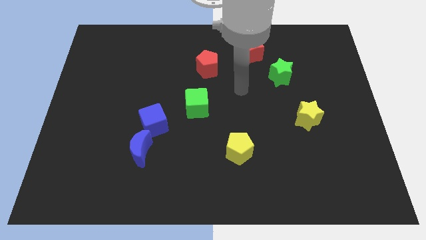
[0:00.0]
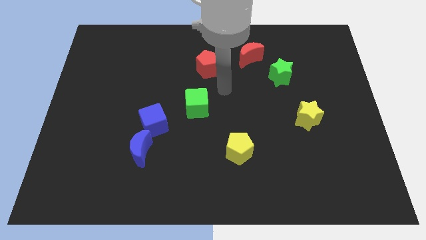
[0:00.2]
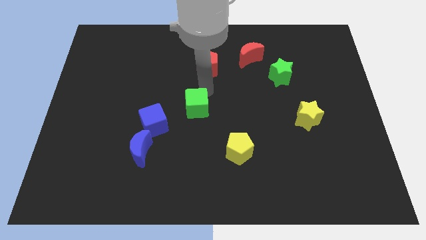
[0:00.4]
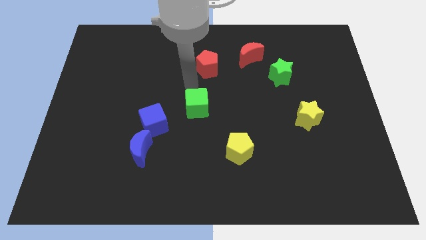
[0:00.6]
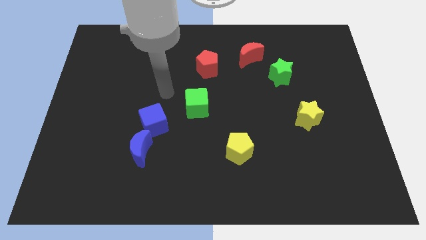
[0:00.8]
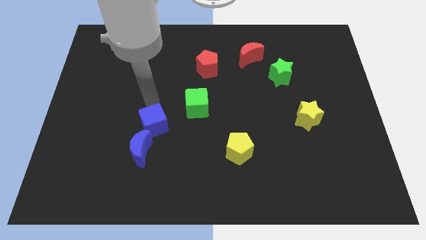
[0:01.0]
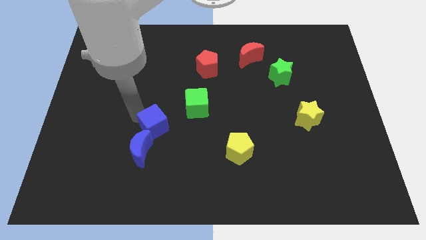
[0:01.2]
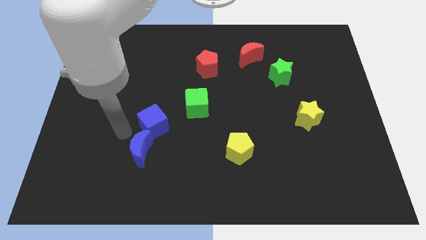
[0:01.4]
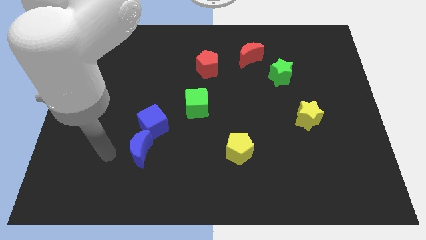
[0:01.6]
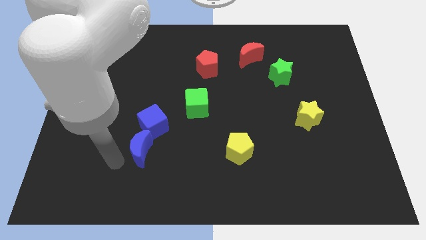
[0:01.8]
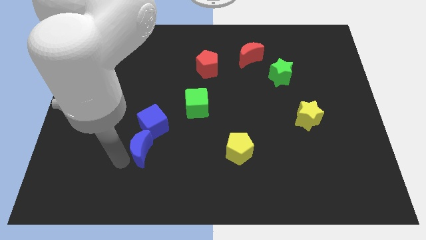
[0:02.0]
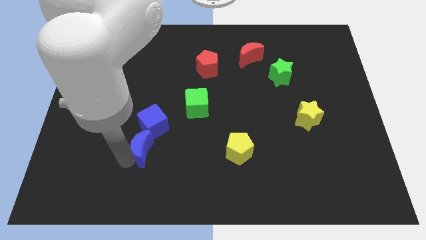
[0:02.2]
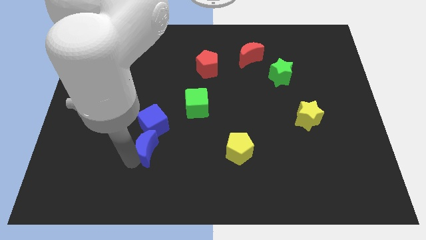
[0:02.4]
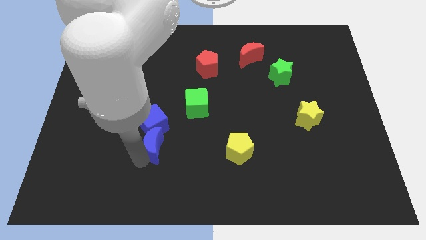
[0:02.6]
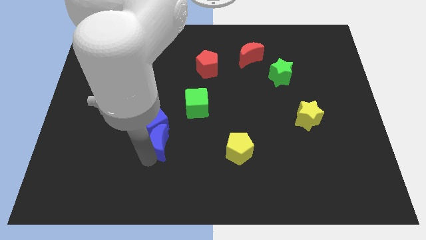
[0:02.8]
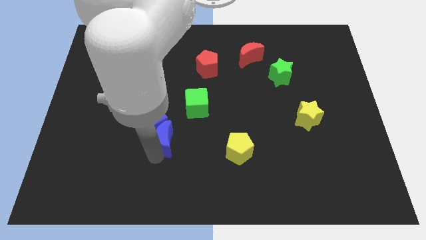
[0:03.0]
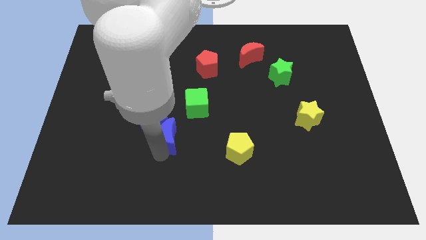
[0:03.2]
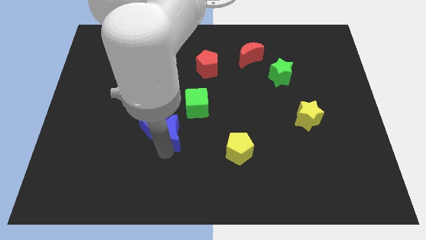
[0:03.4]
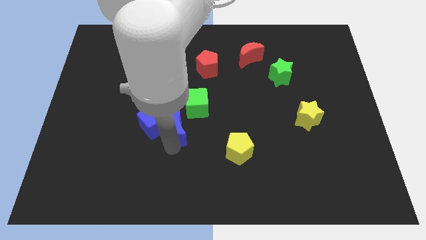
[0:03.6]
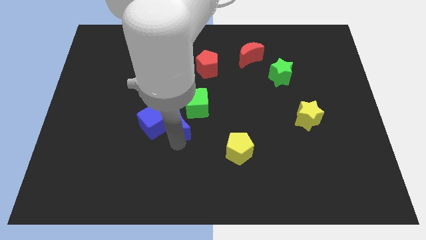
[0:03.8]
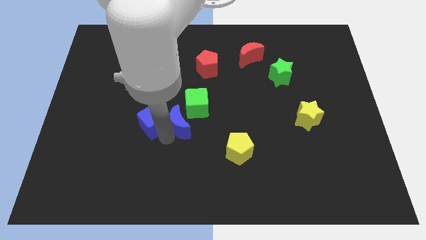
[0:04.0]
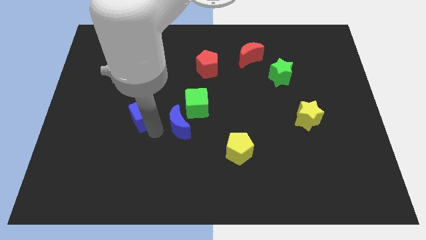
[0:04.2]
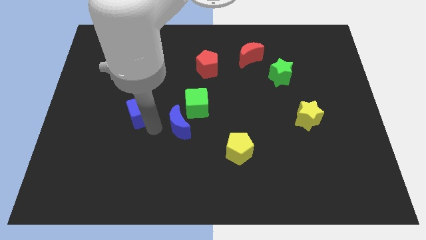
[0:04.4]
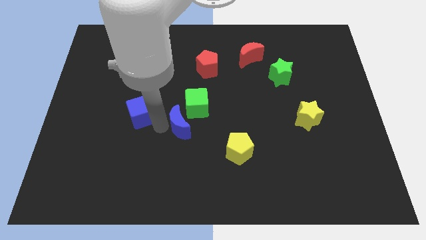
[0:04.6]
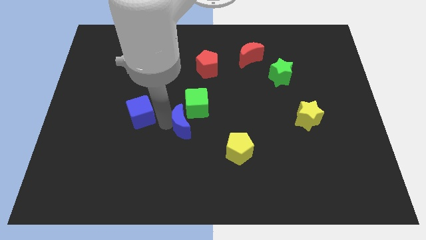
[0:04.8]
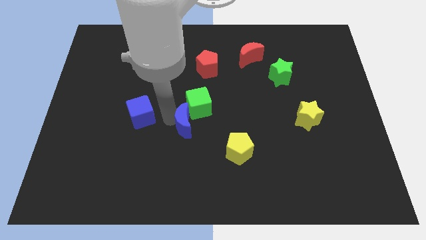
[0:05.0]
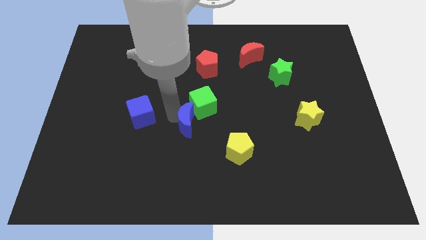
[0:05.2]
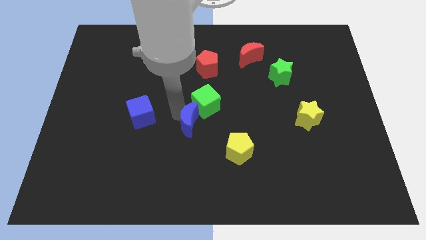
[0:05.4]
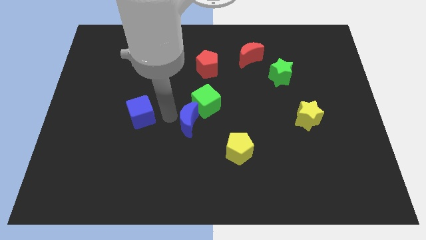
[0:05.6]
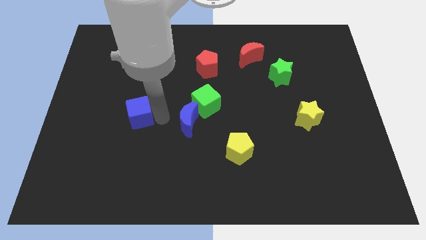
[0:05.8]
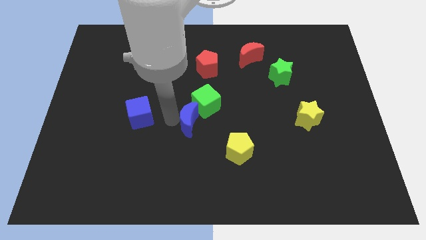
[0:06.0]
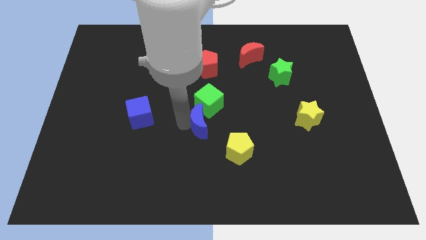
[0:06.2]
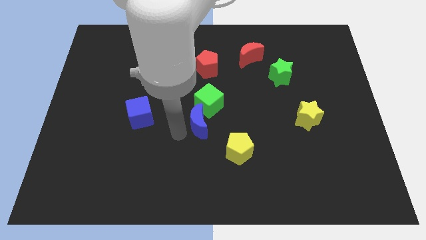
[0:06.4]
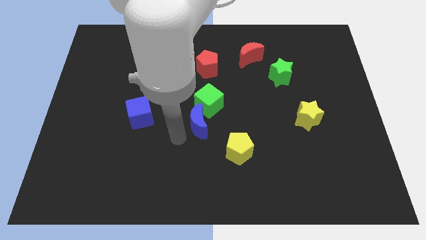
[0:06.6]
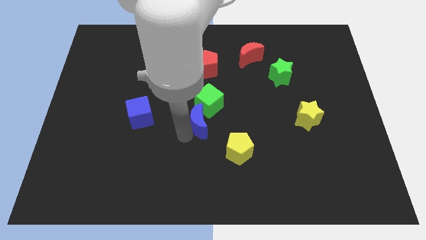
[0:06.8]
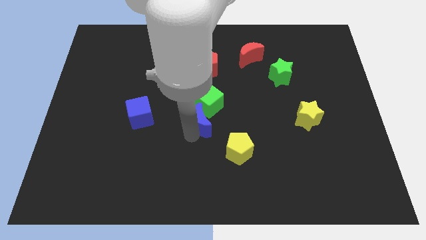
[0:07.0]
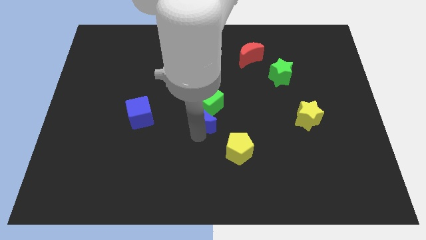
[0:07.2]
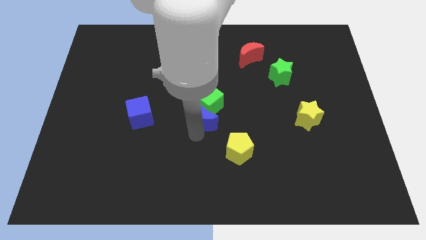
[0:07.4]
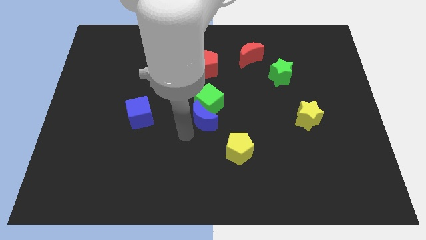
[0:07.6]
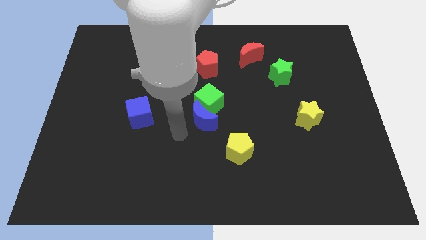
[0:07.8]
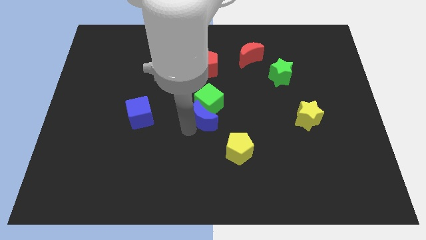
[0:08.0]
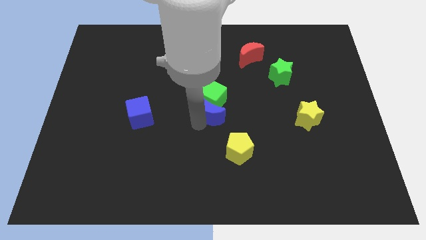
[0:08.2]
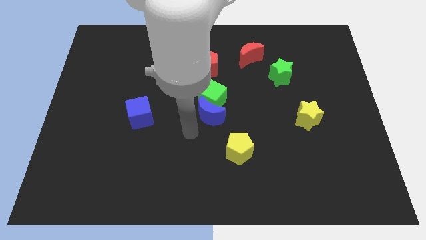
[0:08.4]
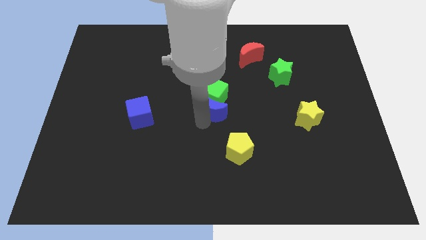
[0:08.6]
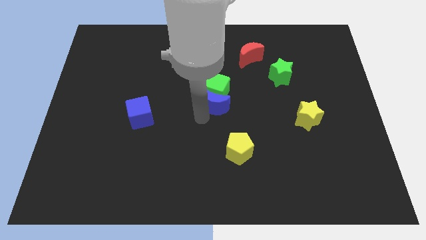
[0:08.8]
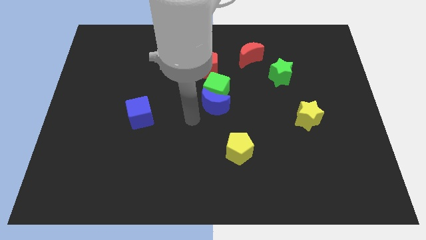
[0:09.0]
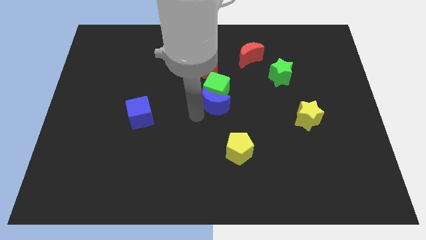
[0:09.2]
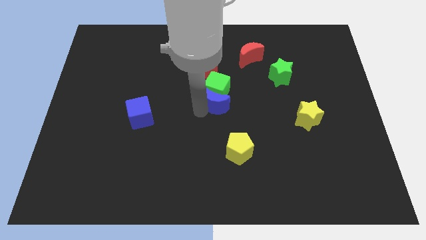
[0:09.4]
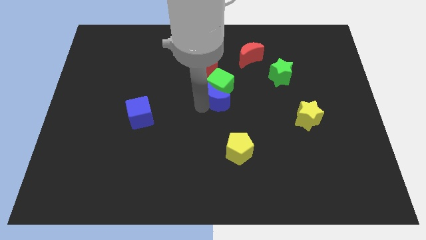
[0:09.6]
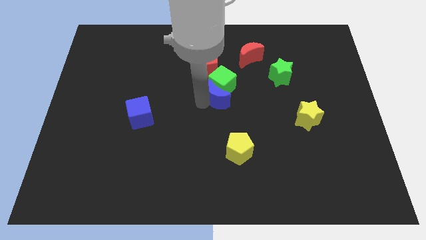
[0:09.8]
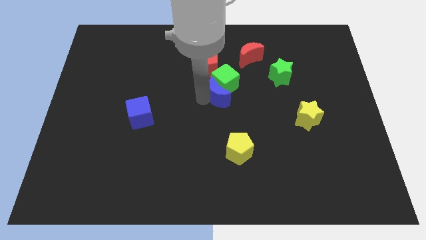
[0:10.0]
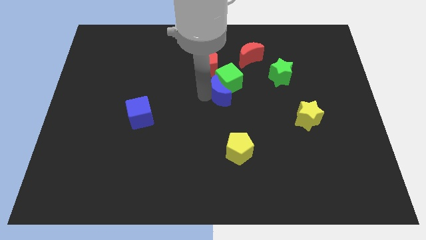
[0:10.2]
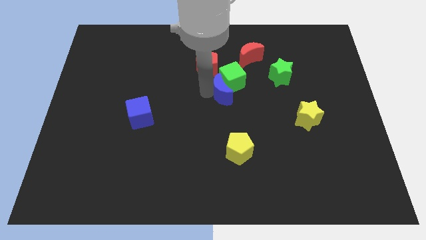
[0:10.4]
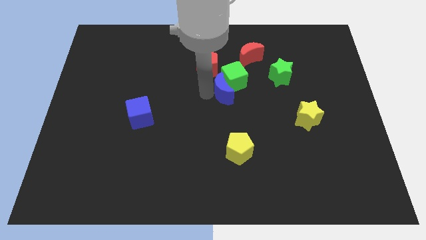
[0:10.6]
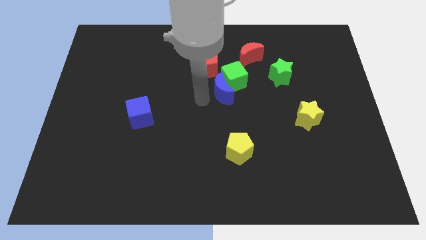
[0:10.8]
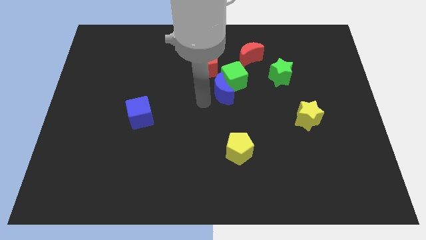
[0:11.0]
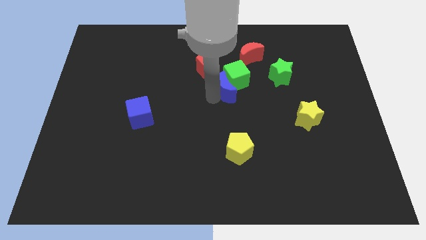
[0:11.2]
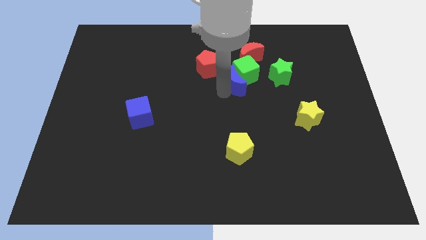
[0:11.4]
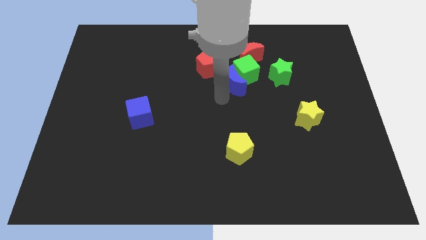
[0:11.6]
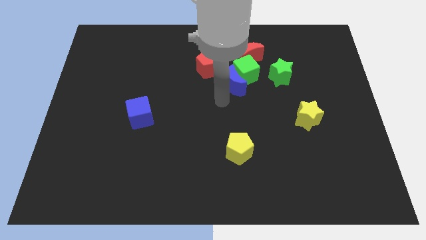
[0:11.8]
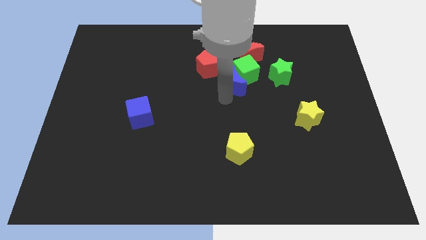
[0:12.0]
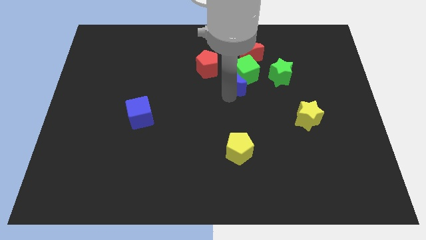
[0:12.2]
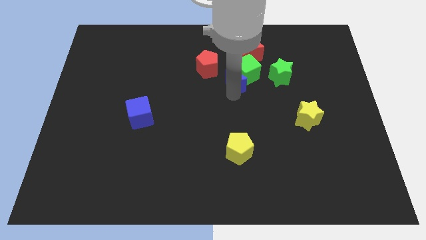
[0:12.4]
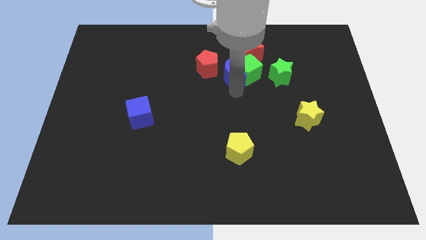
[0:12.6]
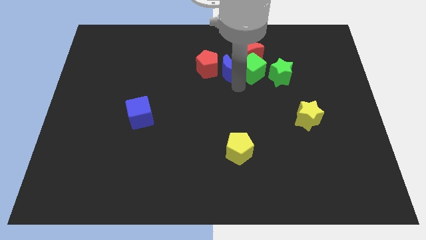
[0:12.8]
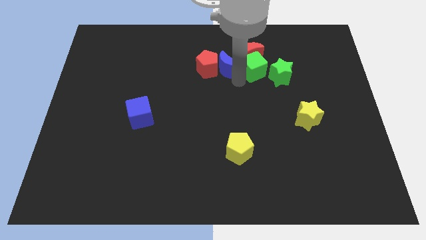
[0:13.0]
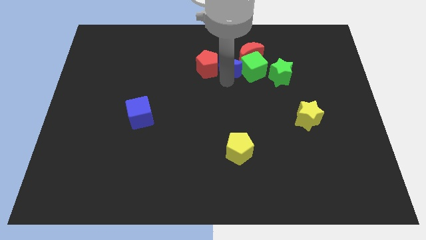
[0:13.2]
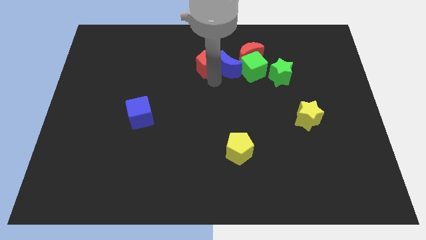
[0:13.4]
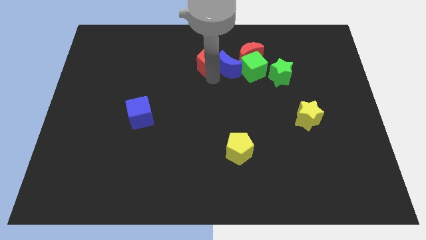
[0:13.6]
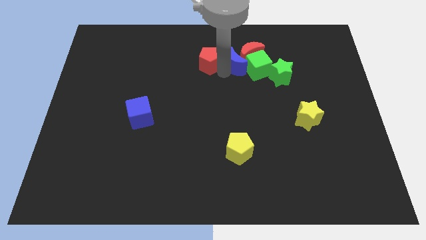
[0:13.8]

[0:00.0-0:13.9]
push the blue moon towards the red moon
